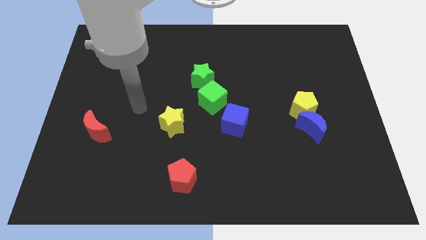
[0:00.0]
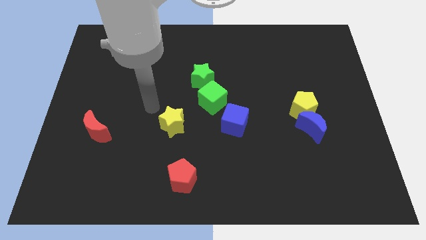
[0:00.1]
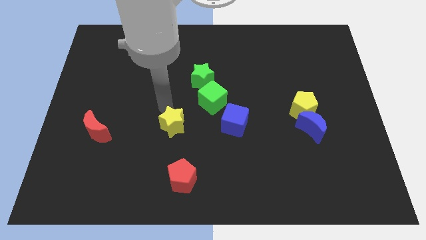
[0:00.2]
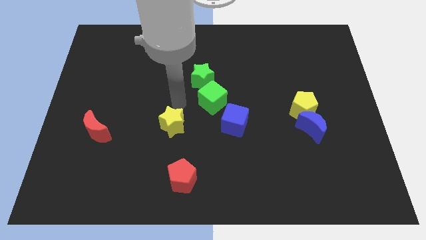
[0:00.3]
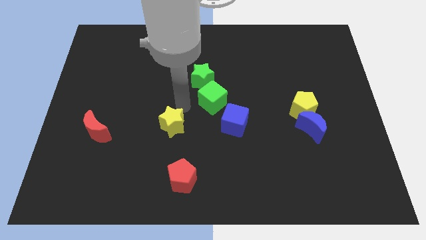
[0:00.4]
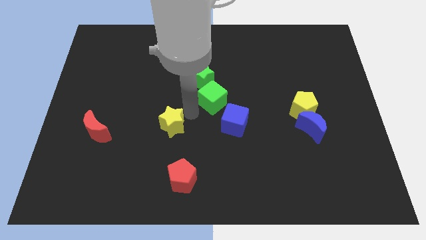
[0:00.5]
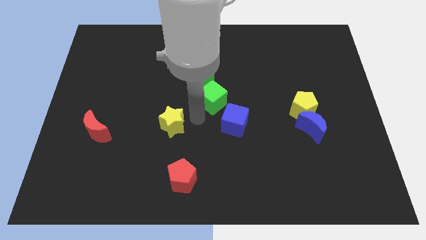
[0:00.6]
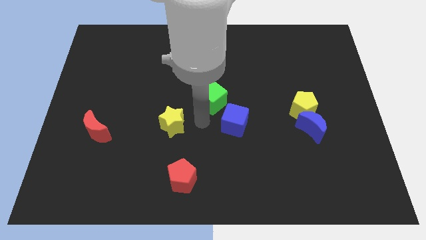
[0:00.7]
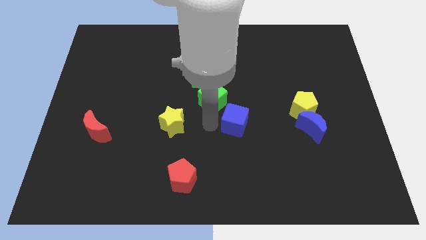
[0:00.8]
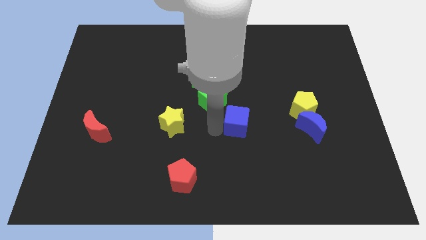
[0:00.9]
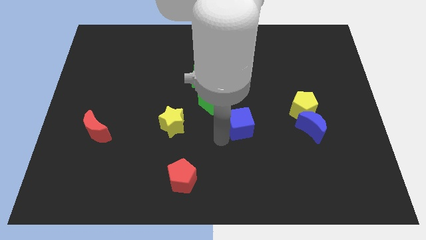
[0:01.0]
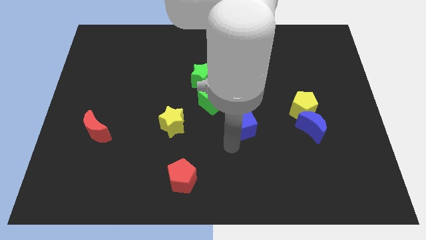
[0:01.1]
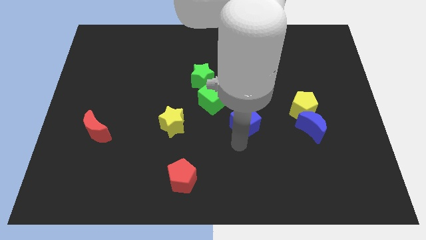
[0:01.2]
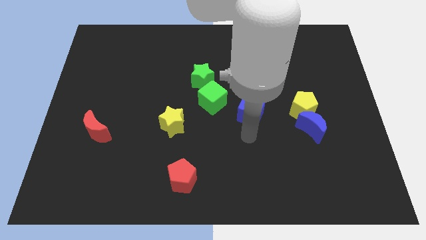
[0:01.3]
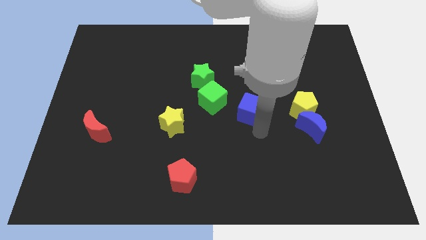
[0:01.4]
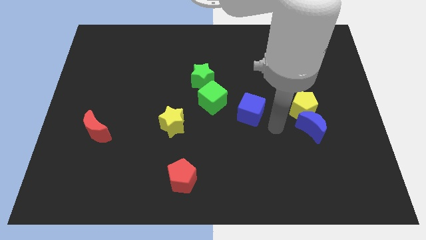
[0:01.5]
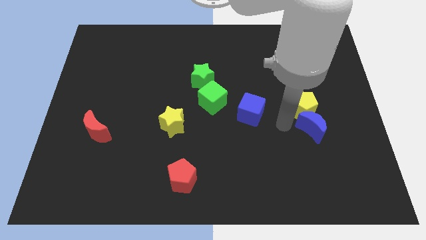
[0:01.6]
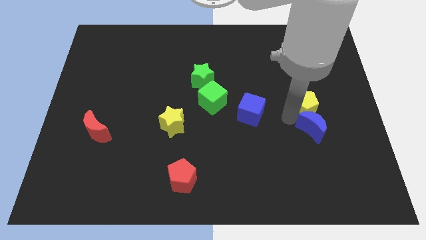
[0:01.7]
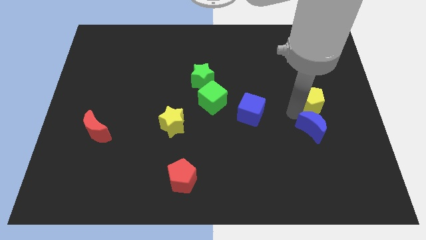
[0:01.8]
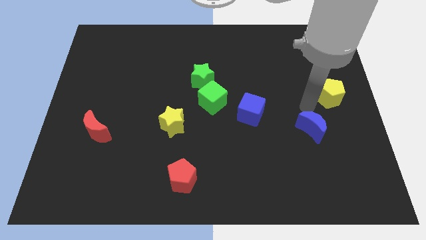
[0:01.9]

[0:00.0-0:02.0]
move the blue moon away from the yellow pentagon

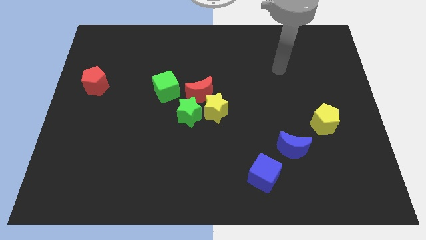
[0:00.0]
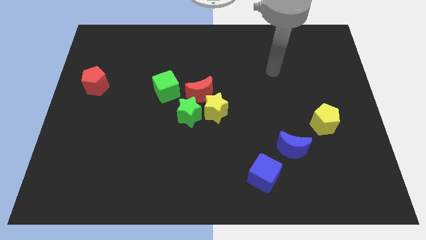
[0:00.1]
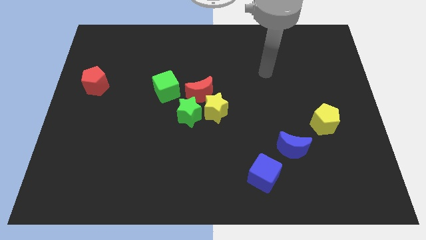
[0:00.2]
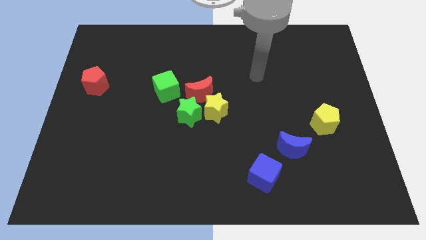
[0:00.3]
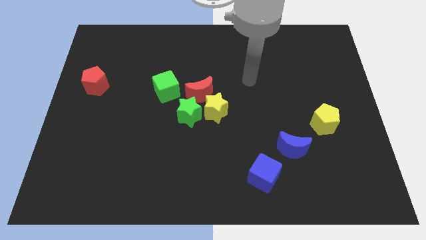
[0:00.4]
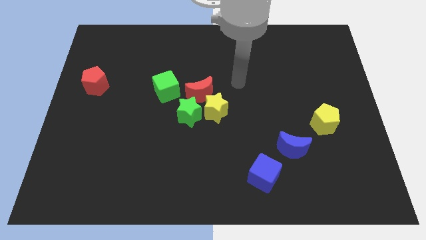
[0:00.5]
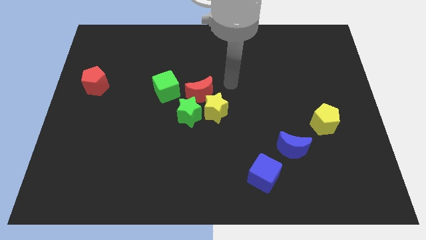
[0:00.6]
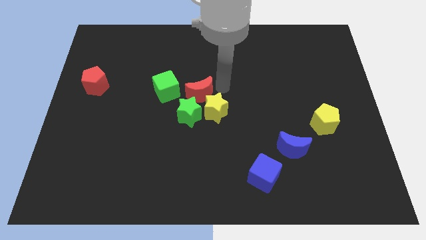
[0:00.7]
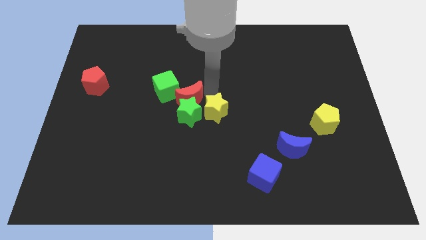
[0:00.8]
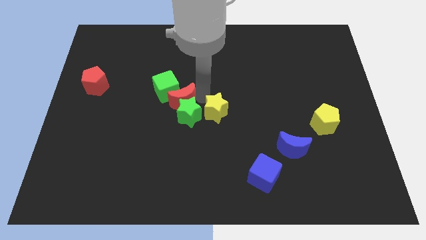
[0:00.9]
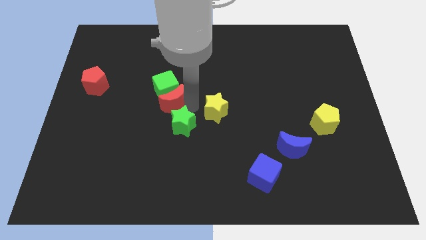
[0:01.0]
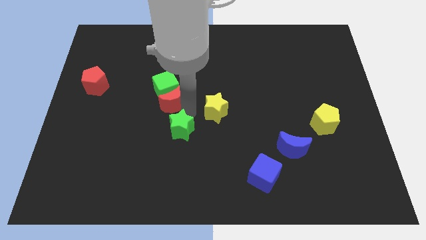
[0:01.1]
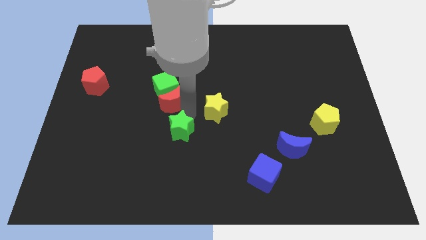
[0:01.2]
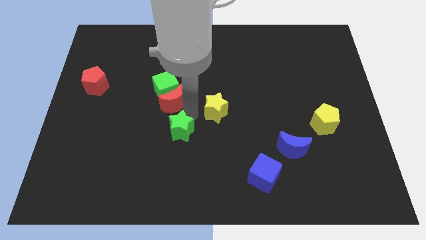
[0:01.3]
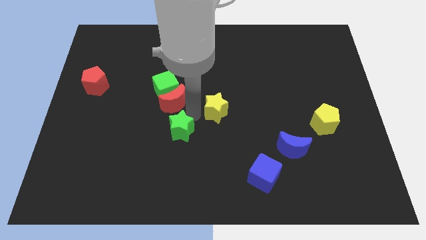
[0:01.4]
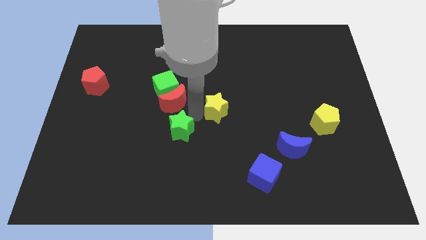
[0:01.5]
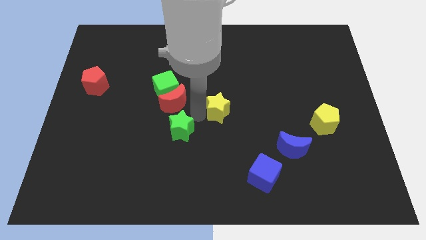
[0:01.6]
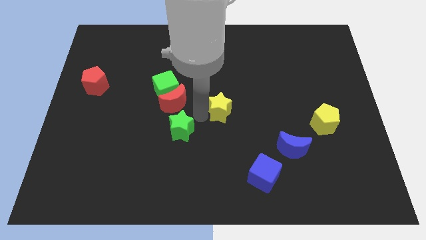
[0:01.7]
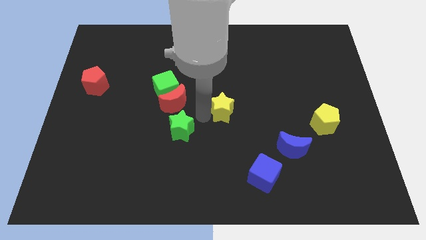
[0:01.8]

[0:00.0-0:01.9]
pull the yellow star apart from the green star and red moon

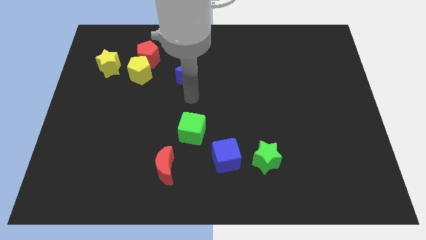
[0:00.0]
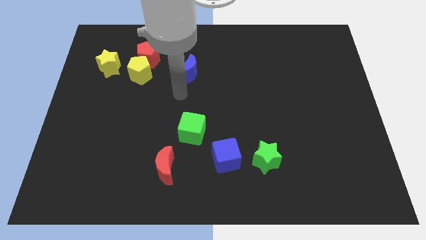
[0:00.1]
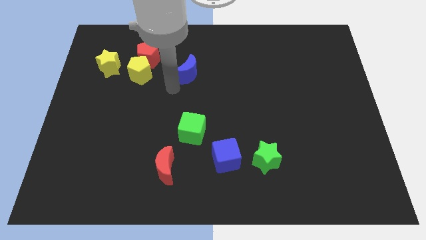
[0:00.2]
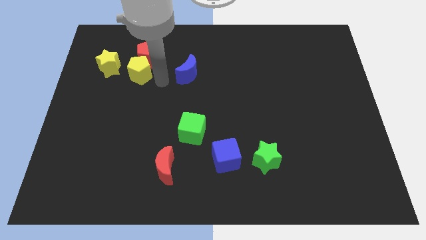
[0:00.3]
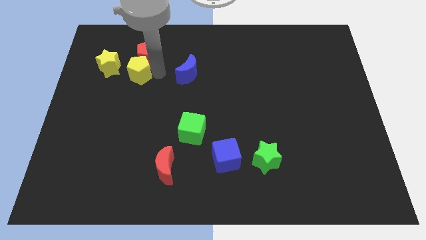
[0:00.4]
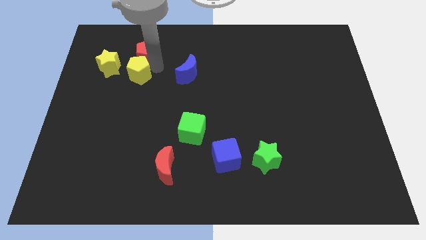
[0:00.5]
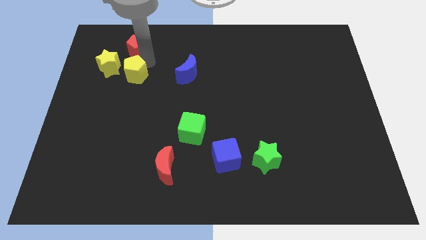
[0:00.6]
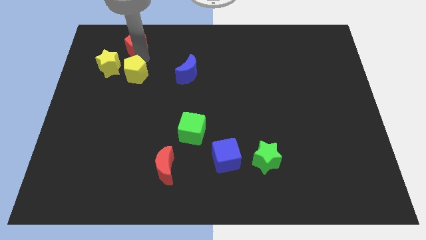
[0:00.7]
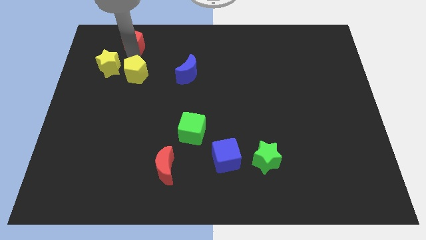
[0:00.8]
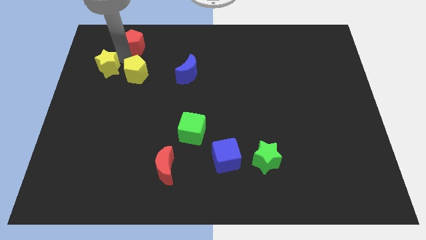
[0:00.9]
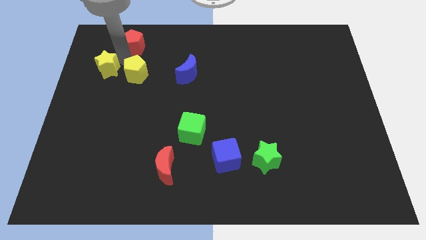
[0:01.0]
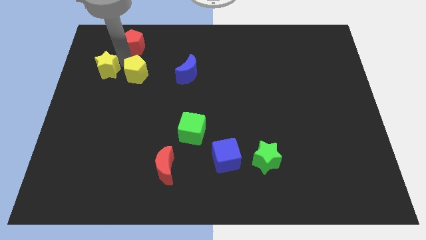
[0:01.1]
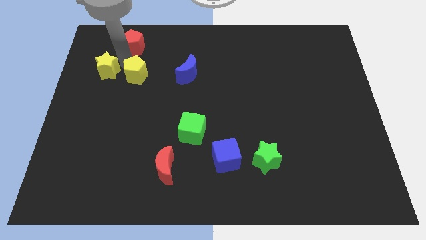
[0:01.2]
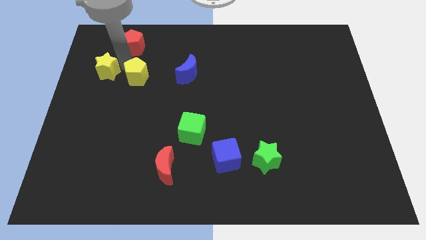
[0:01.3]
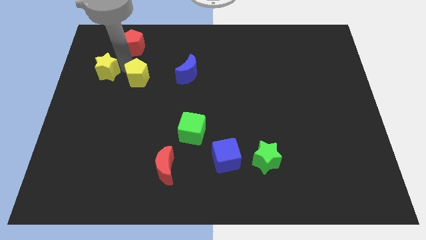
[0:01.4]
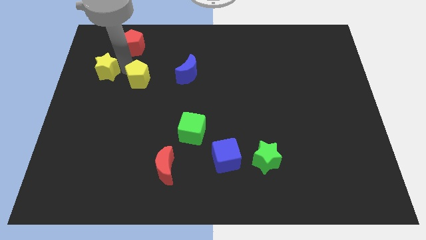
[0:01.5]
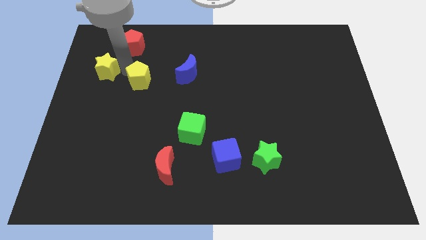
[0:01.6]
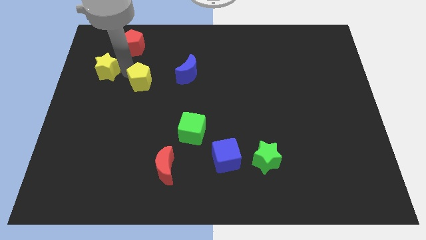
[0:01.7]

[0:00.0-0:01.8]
move the yellow pentagon away from the red pentagon and yellow star

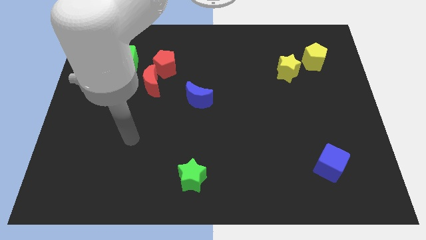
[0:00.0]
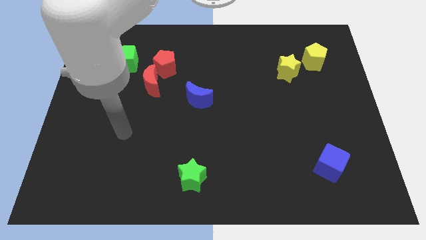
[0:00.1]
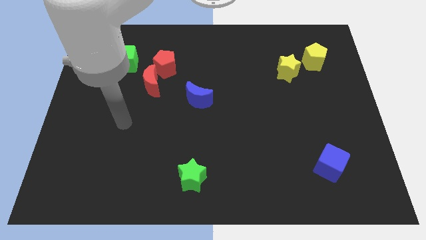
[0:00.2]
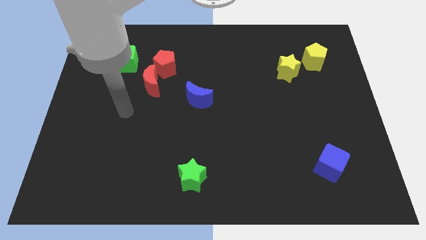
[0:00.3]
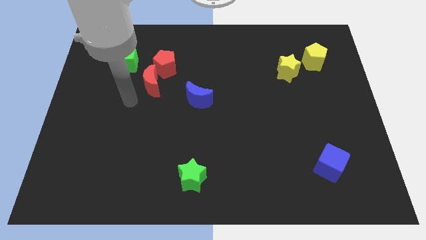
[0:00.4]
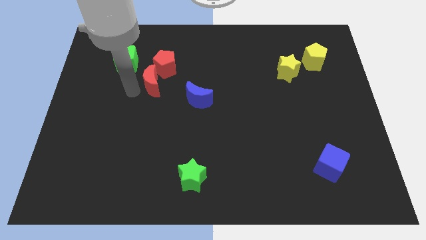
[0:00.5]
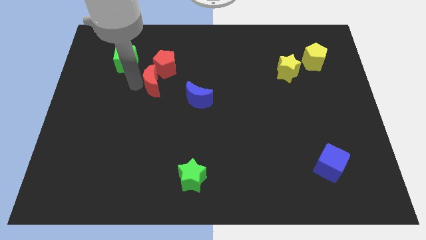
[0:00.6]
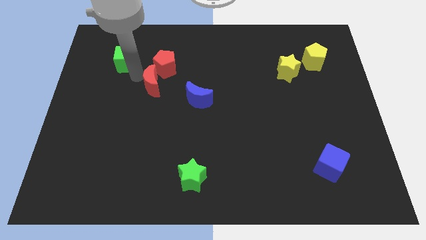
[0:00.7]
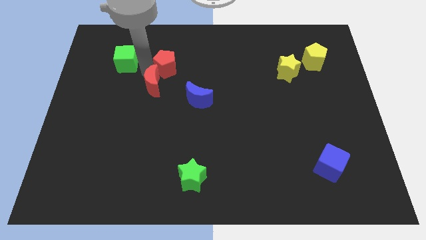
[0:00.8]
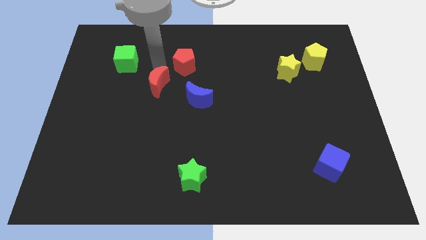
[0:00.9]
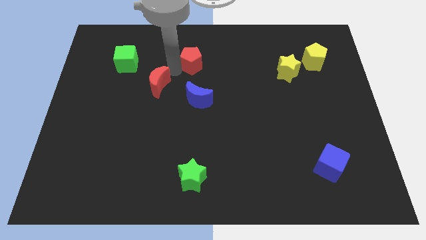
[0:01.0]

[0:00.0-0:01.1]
pull the red moon apart from the red pentagon

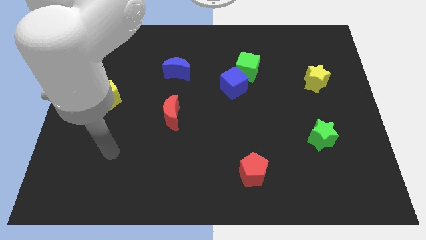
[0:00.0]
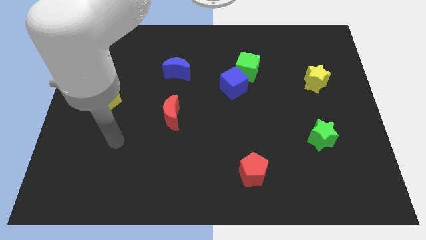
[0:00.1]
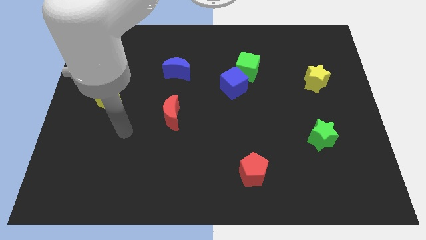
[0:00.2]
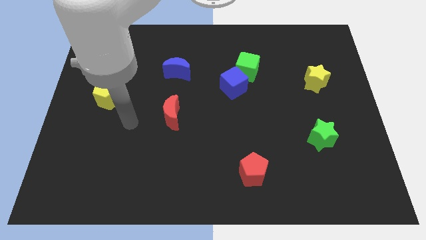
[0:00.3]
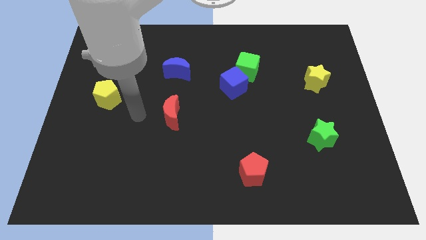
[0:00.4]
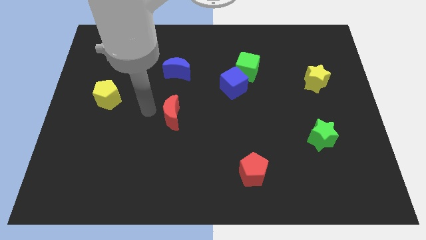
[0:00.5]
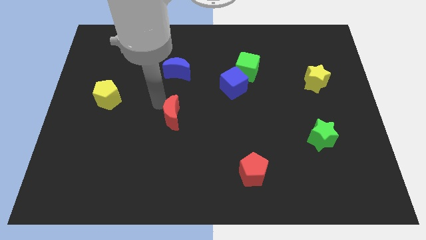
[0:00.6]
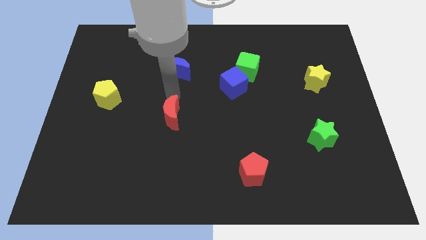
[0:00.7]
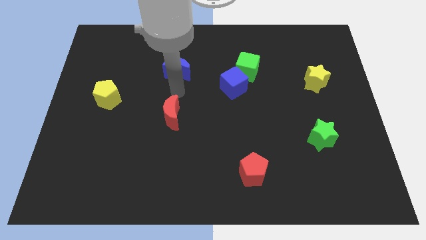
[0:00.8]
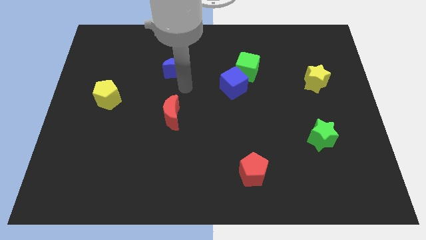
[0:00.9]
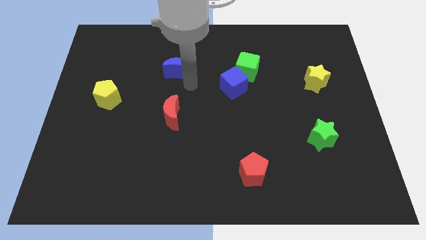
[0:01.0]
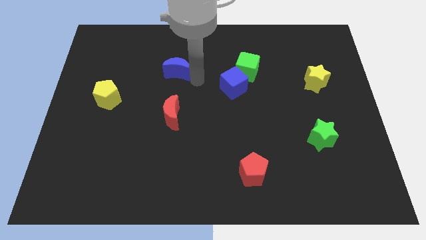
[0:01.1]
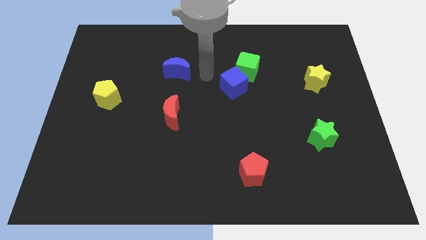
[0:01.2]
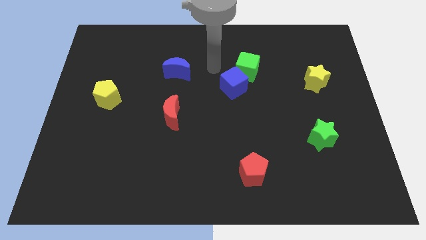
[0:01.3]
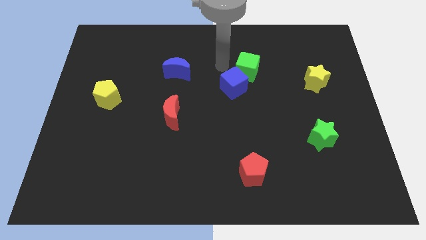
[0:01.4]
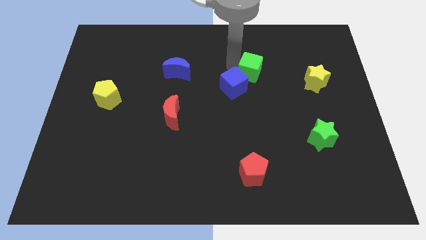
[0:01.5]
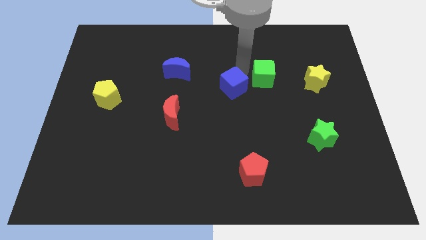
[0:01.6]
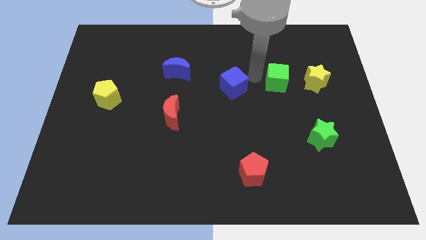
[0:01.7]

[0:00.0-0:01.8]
pull the blue cube apart from the green cube

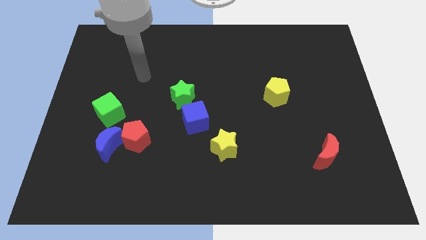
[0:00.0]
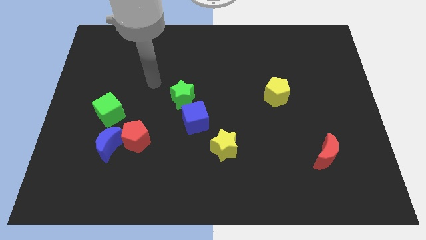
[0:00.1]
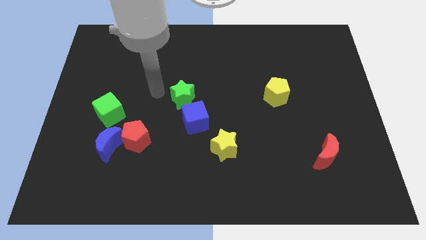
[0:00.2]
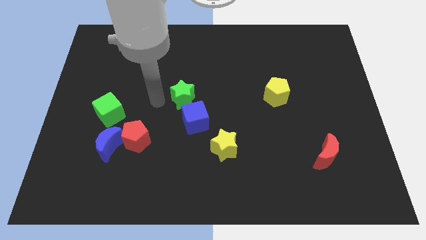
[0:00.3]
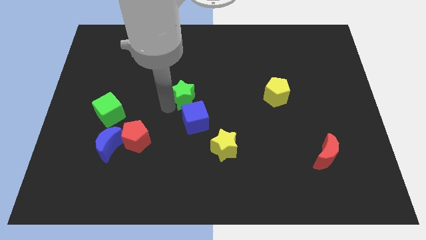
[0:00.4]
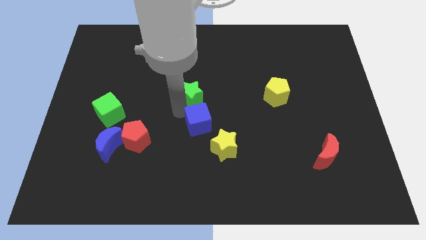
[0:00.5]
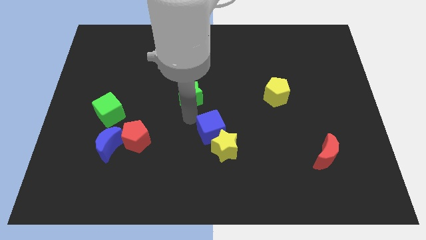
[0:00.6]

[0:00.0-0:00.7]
pull the green star apart from the blue cube

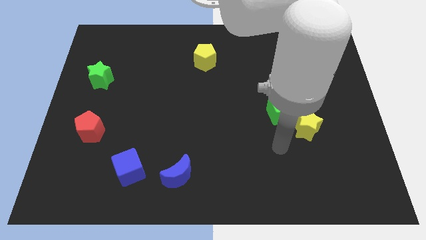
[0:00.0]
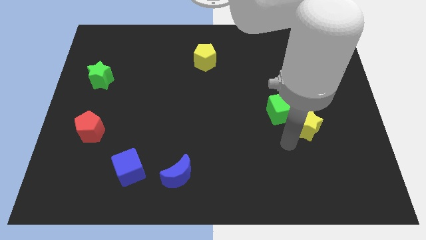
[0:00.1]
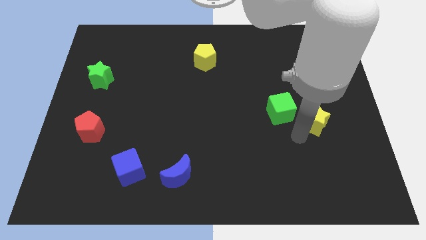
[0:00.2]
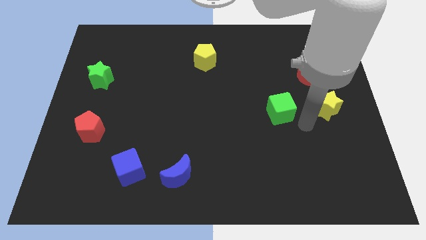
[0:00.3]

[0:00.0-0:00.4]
pull the green cube apart from the yellow star
